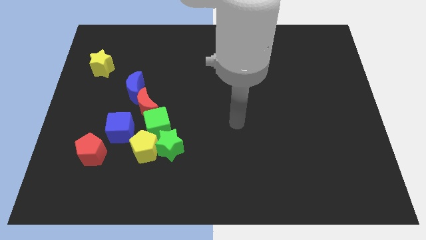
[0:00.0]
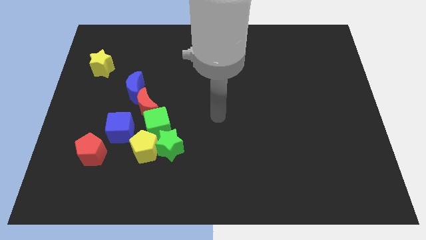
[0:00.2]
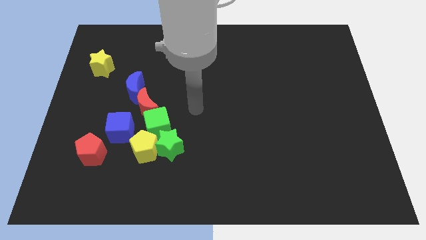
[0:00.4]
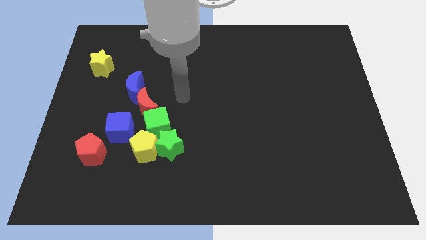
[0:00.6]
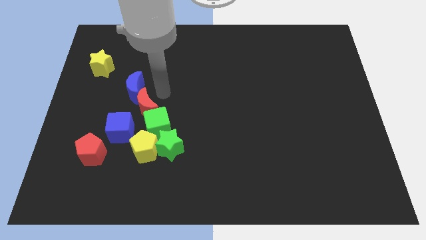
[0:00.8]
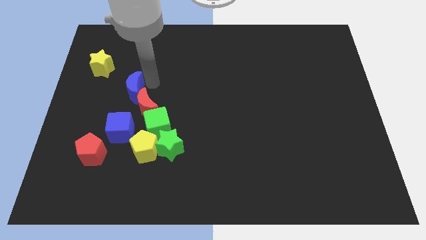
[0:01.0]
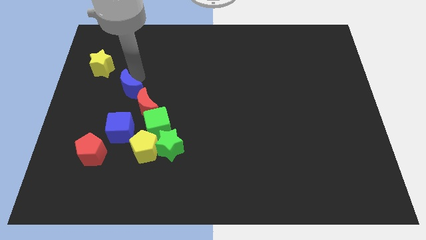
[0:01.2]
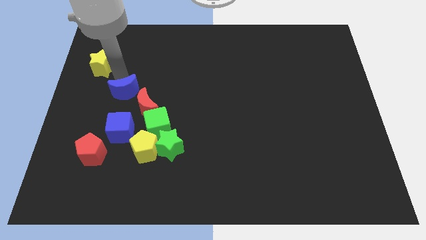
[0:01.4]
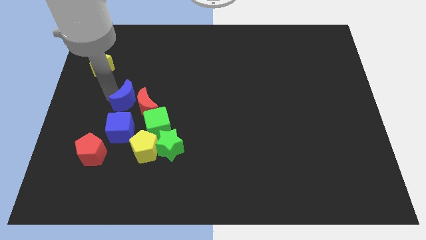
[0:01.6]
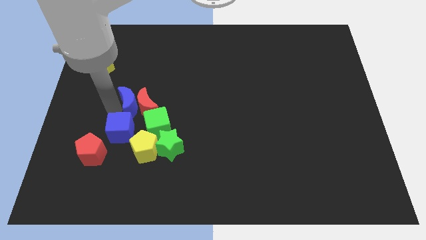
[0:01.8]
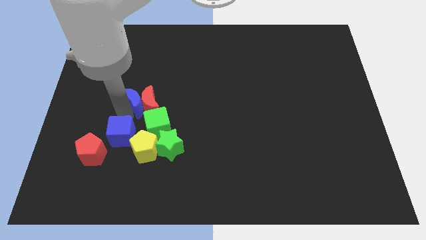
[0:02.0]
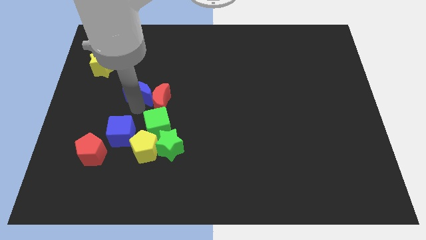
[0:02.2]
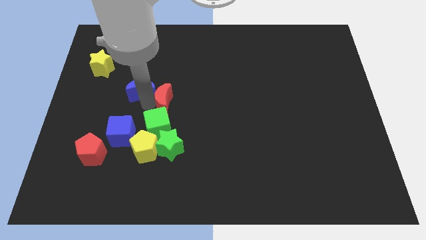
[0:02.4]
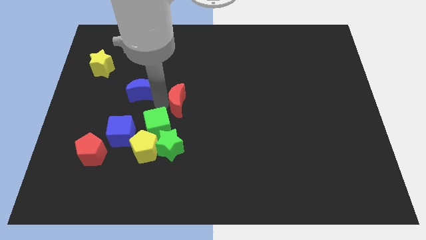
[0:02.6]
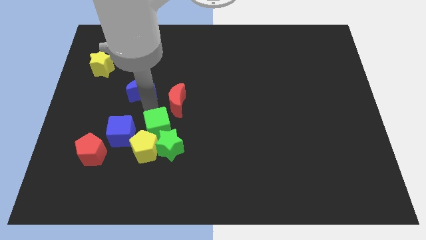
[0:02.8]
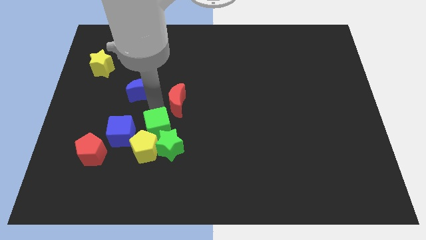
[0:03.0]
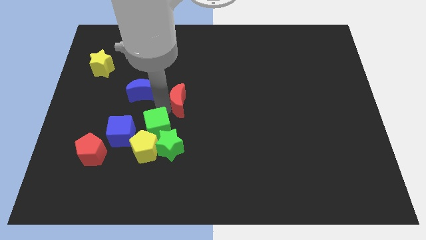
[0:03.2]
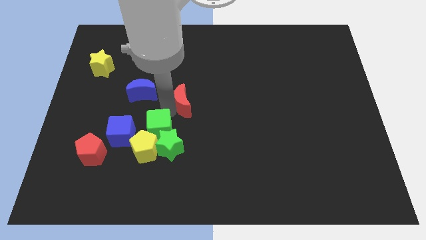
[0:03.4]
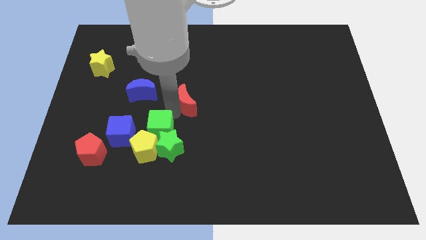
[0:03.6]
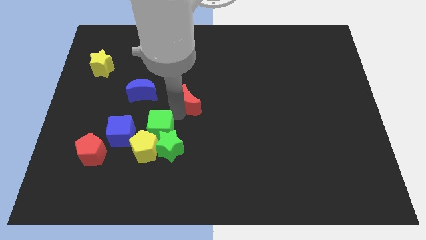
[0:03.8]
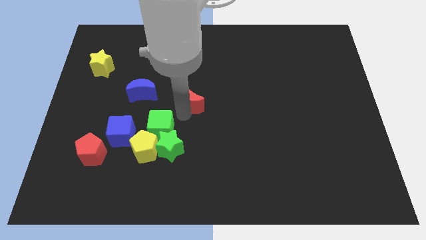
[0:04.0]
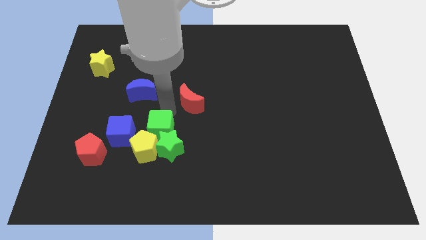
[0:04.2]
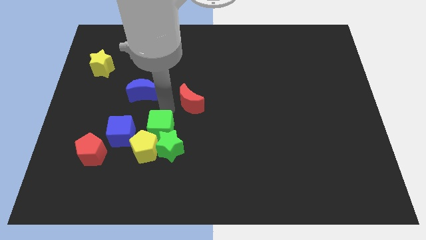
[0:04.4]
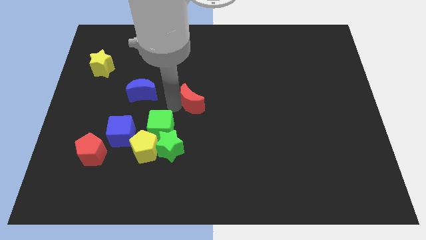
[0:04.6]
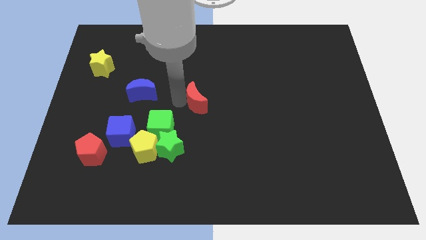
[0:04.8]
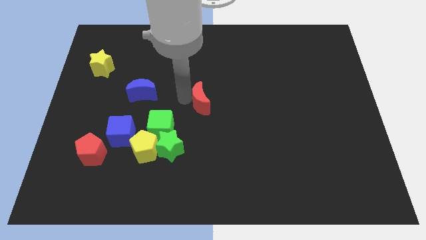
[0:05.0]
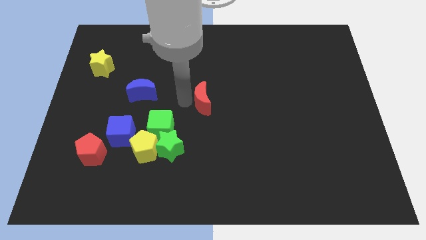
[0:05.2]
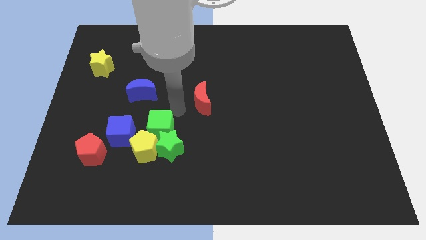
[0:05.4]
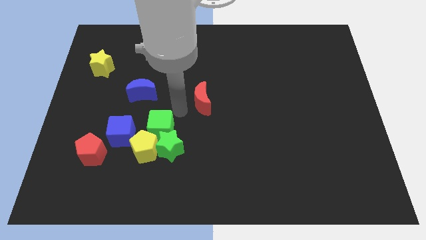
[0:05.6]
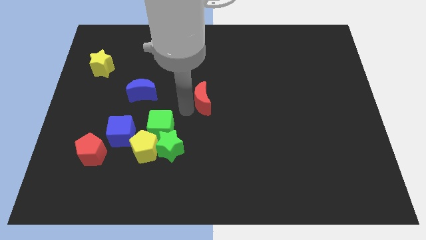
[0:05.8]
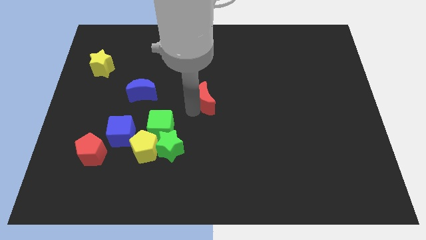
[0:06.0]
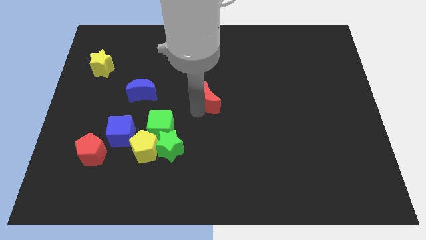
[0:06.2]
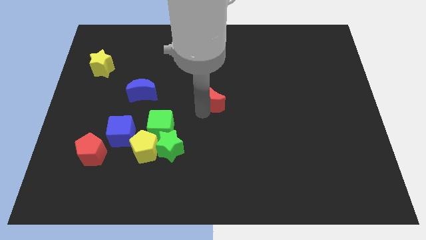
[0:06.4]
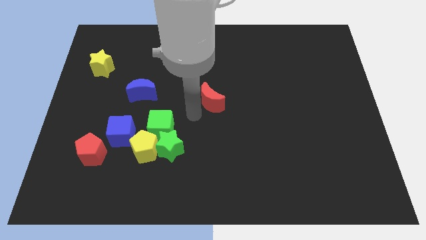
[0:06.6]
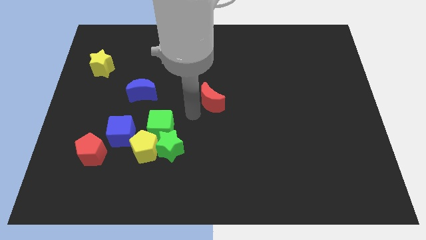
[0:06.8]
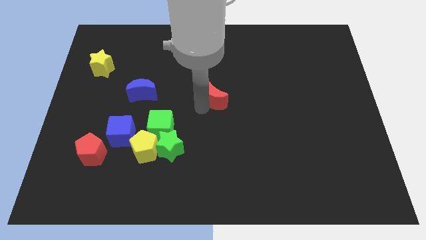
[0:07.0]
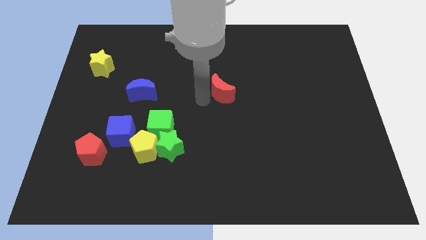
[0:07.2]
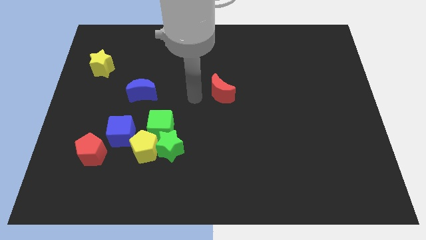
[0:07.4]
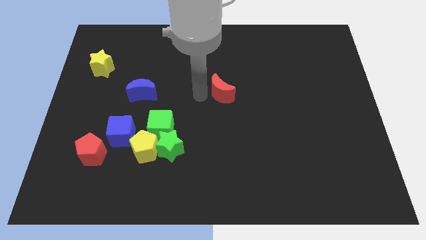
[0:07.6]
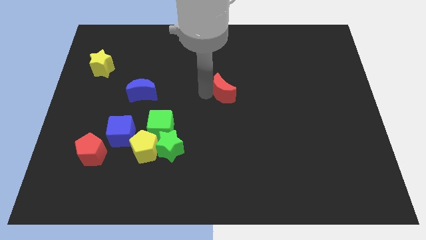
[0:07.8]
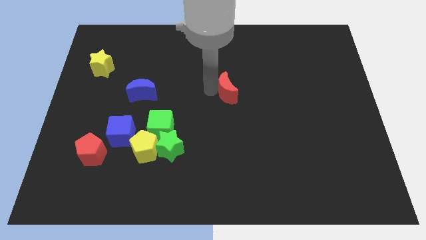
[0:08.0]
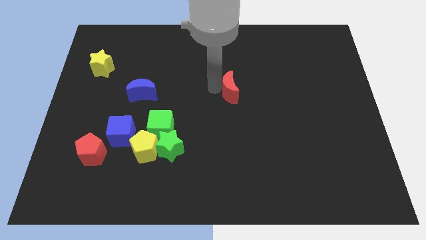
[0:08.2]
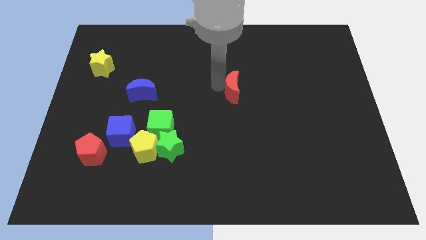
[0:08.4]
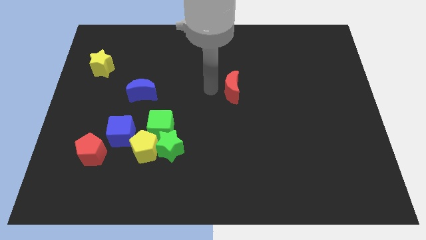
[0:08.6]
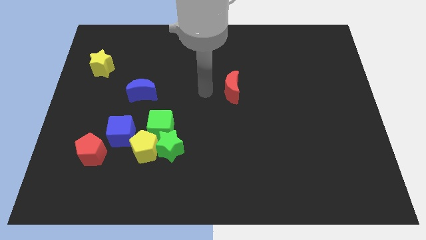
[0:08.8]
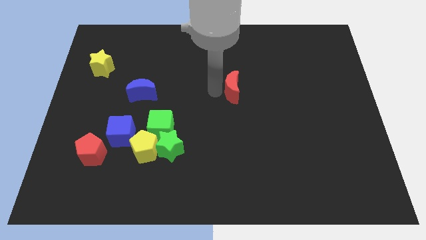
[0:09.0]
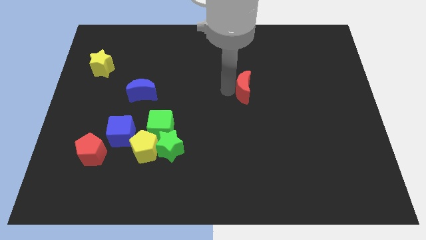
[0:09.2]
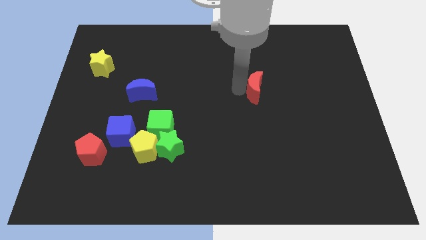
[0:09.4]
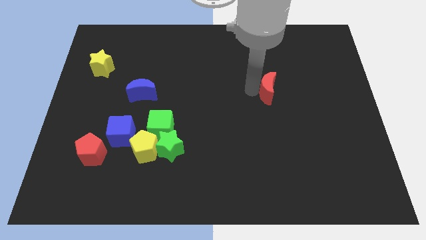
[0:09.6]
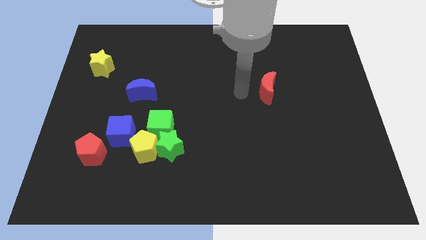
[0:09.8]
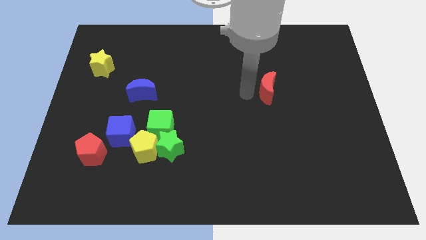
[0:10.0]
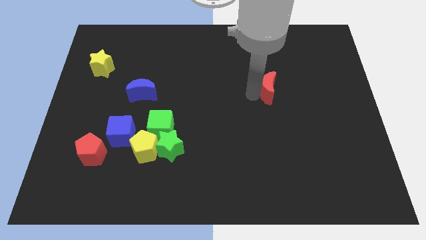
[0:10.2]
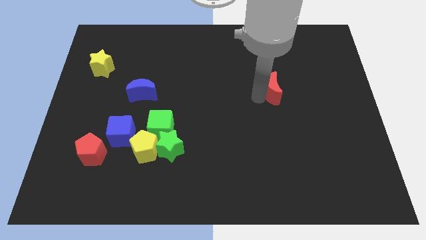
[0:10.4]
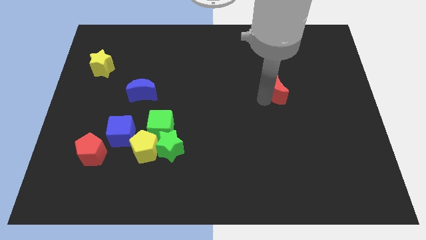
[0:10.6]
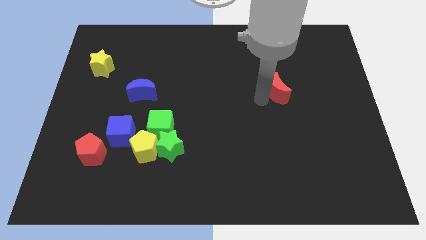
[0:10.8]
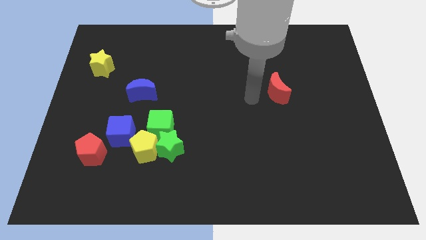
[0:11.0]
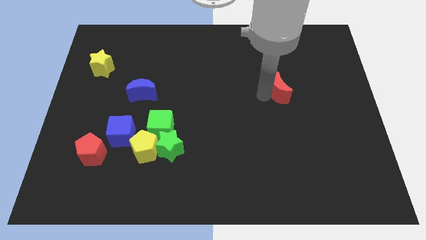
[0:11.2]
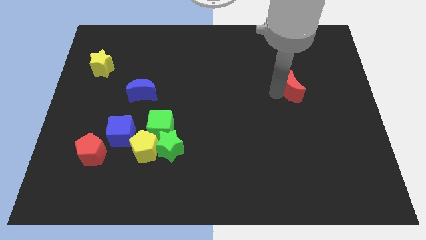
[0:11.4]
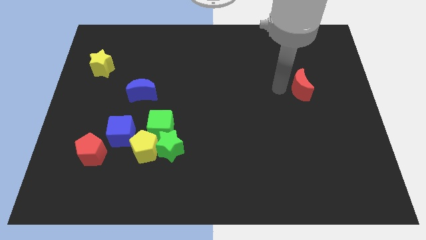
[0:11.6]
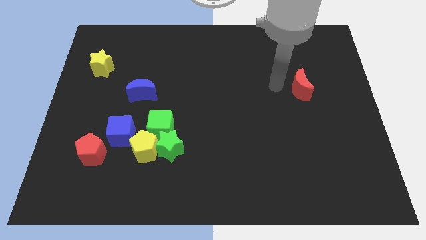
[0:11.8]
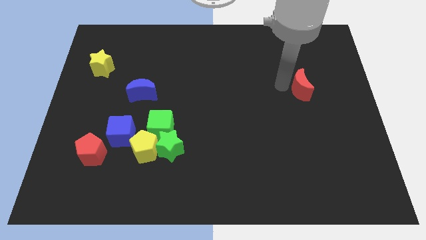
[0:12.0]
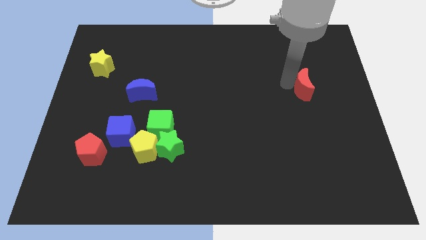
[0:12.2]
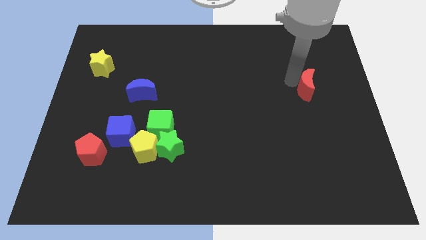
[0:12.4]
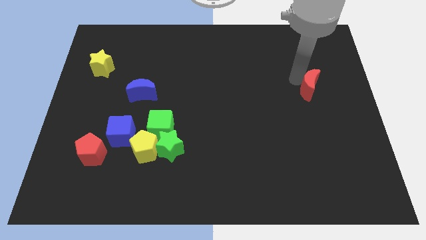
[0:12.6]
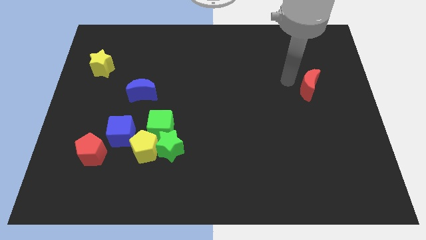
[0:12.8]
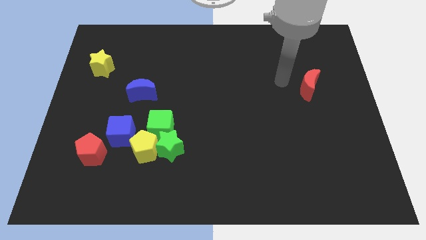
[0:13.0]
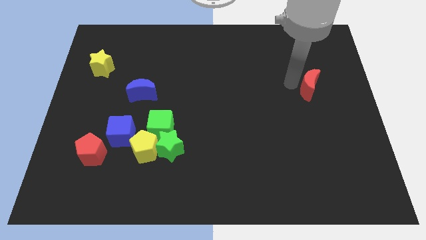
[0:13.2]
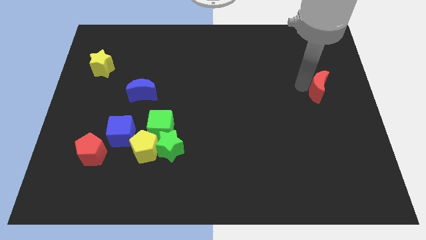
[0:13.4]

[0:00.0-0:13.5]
push the red moon to the right side
